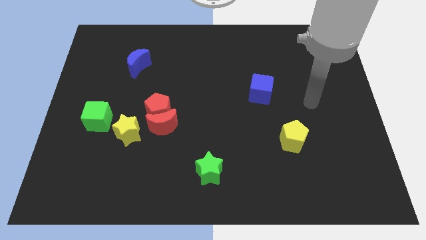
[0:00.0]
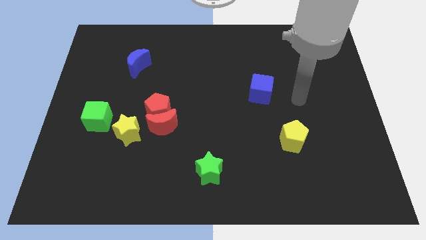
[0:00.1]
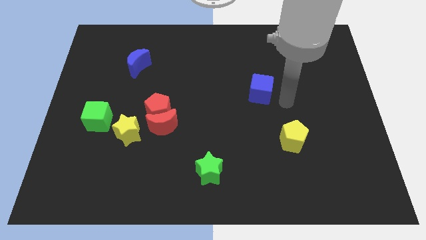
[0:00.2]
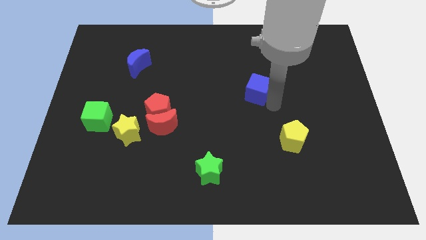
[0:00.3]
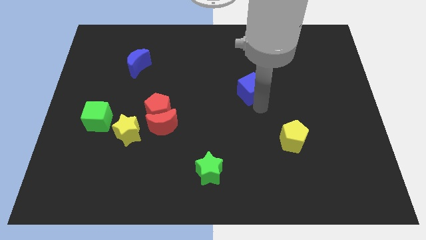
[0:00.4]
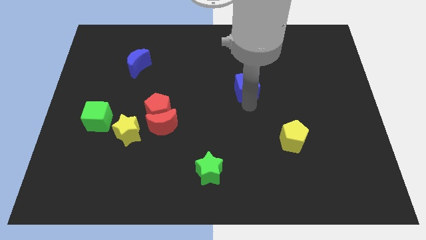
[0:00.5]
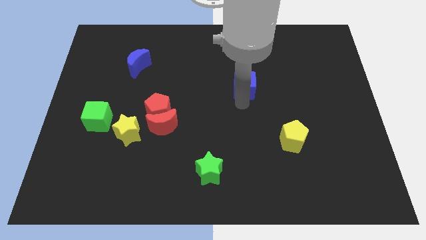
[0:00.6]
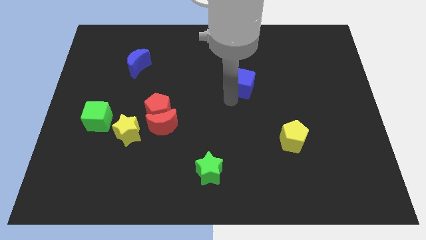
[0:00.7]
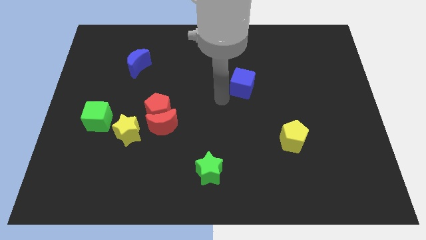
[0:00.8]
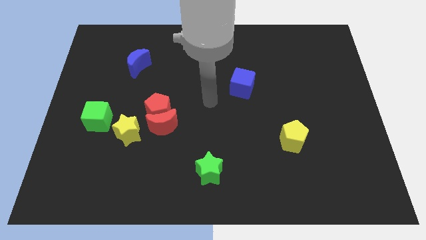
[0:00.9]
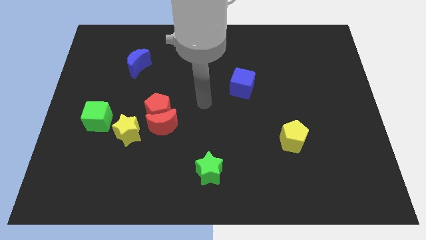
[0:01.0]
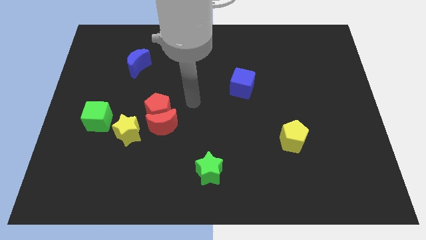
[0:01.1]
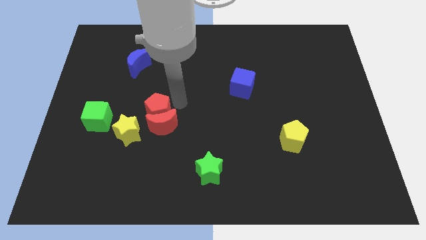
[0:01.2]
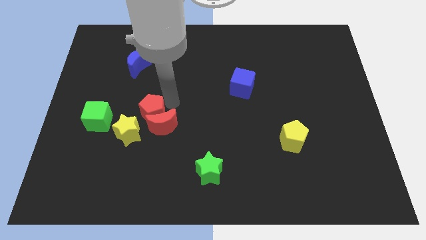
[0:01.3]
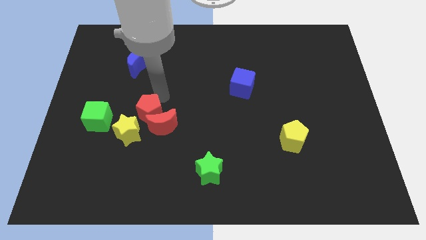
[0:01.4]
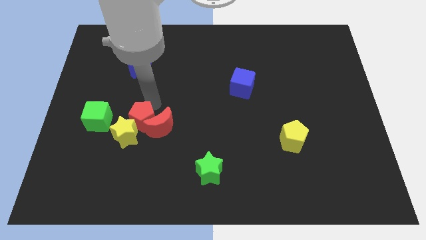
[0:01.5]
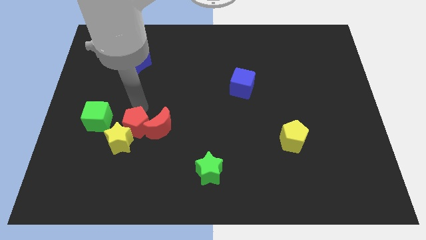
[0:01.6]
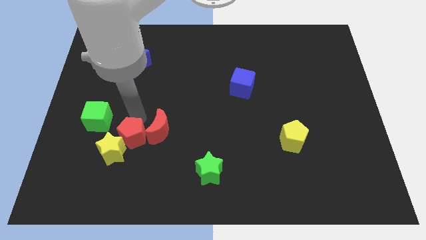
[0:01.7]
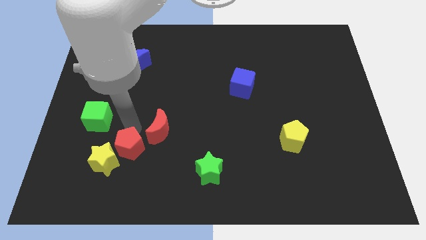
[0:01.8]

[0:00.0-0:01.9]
move the red moon away from the red pentagon and yellow star

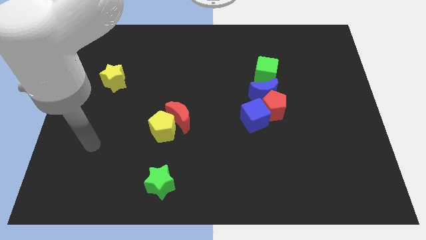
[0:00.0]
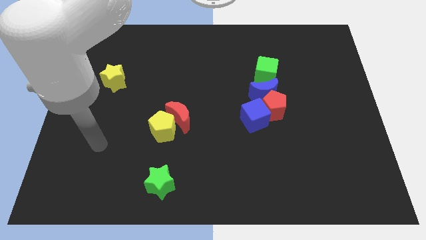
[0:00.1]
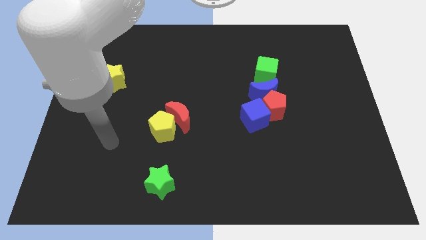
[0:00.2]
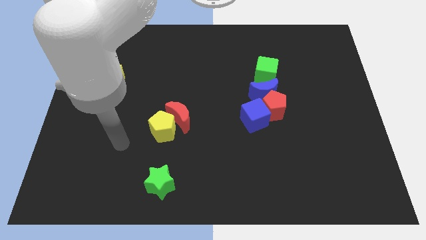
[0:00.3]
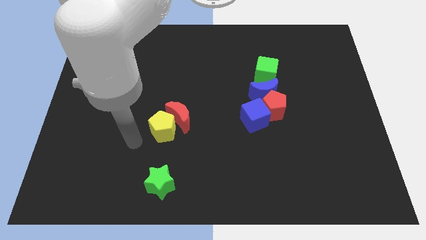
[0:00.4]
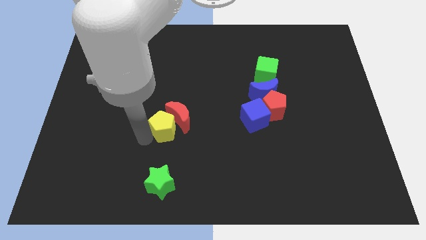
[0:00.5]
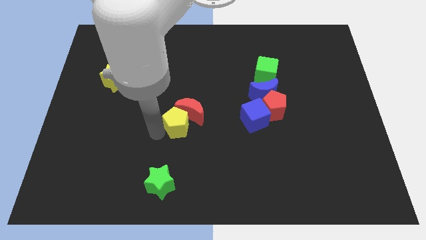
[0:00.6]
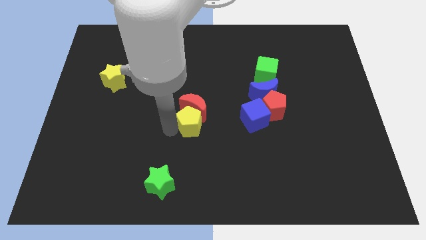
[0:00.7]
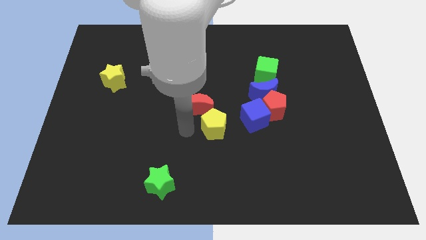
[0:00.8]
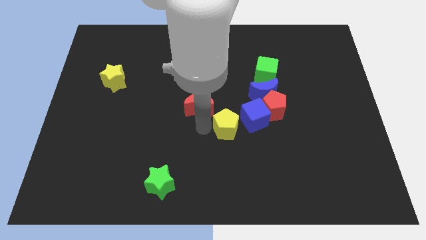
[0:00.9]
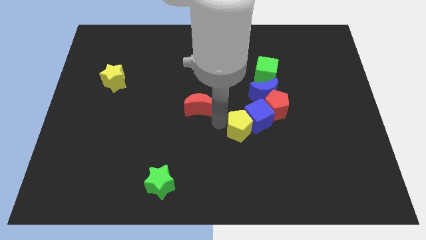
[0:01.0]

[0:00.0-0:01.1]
pull the red moon apart from the yellow pentagon

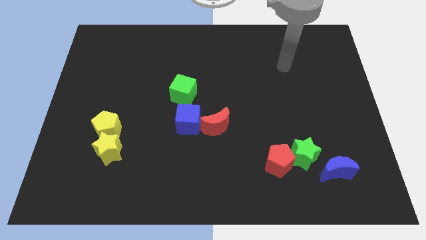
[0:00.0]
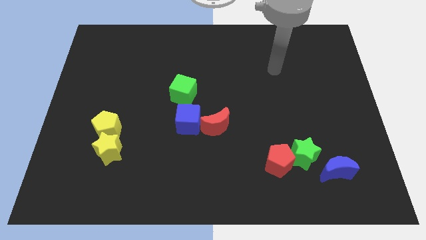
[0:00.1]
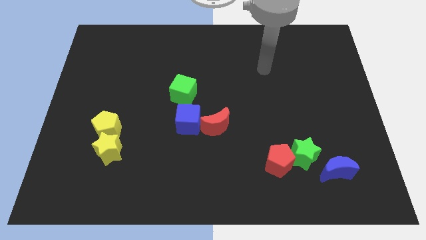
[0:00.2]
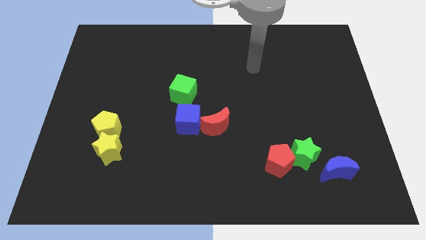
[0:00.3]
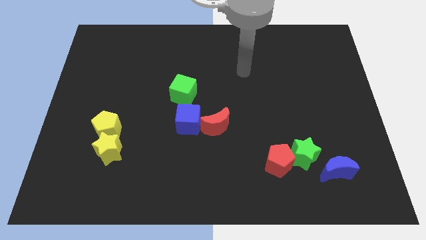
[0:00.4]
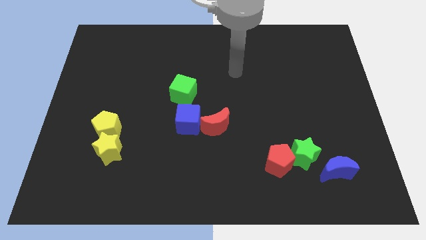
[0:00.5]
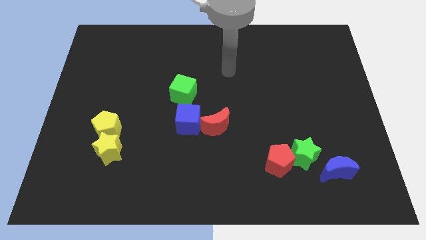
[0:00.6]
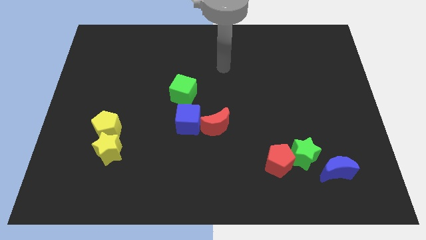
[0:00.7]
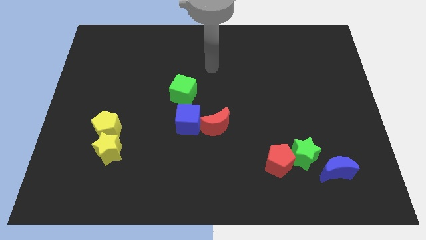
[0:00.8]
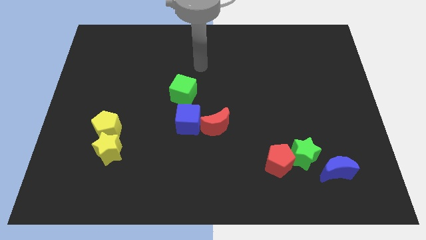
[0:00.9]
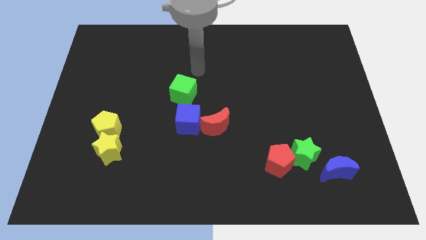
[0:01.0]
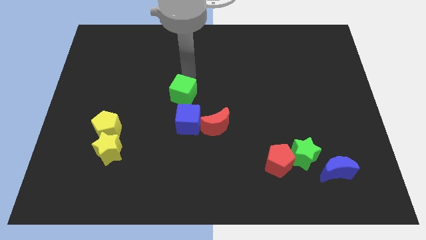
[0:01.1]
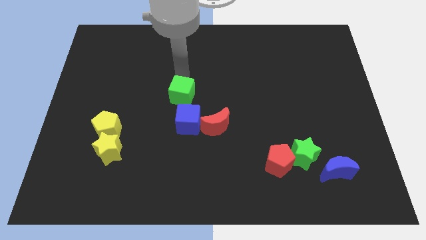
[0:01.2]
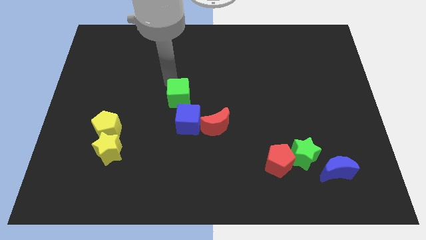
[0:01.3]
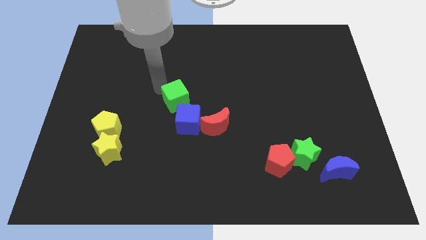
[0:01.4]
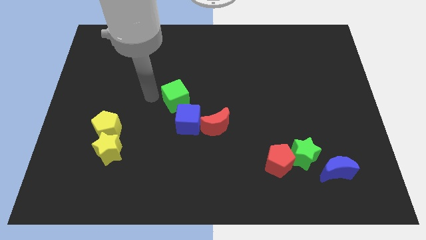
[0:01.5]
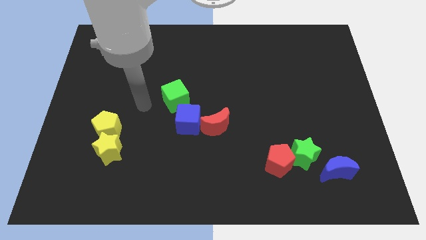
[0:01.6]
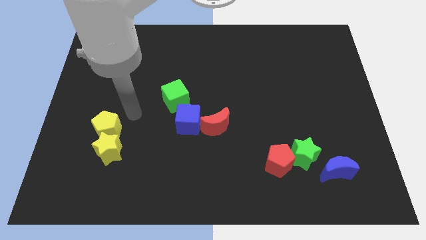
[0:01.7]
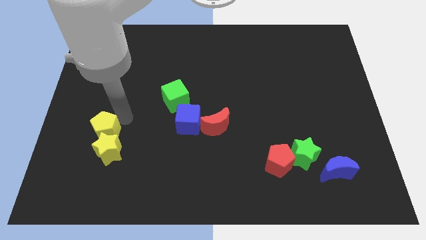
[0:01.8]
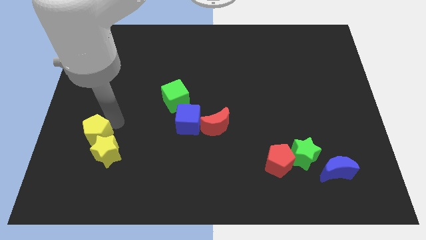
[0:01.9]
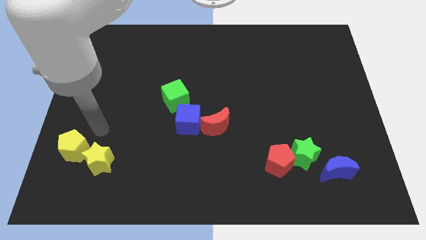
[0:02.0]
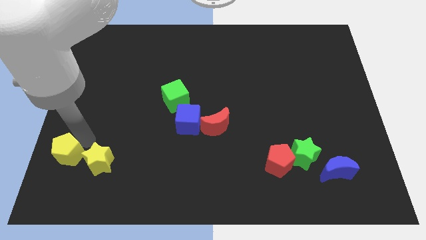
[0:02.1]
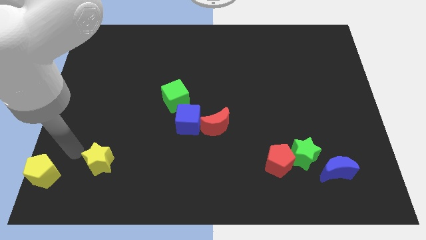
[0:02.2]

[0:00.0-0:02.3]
separate the yellow star from the yellow pentagon

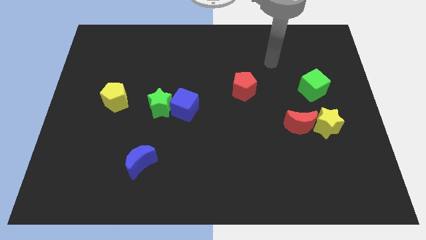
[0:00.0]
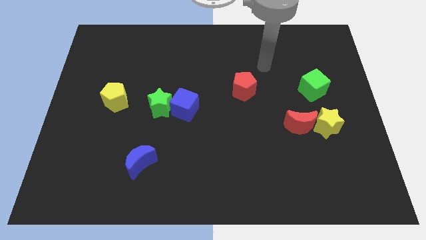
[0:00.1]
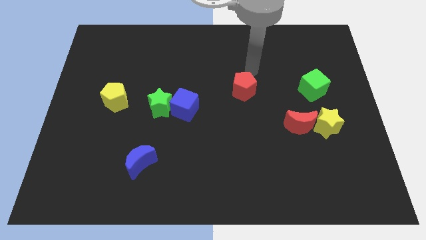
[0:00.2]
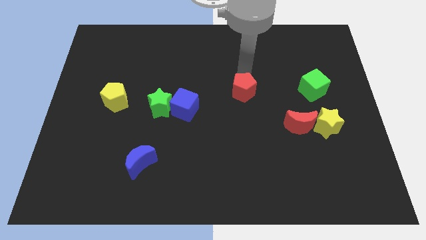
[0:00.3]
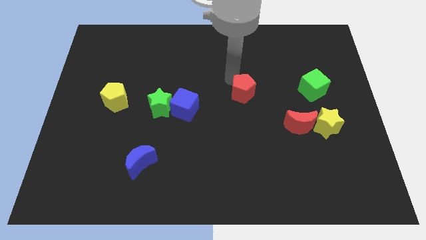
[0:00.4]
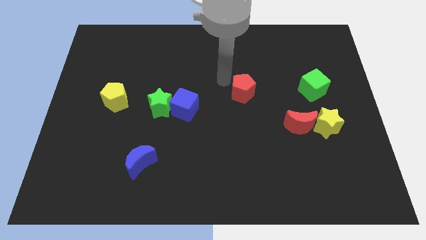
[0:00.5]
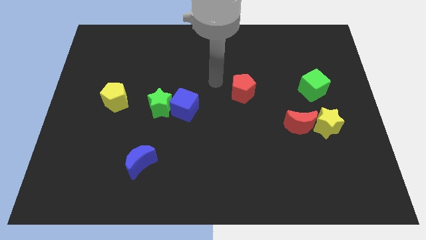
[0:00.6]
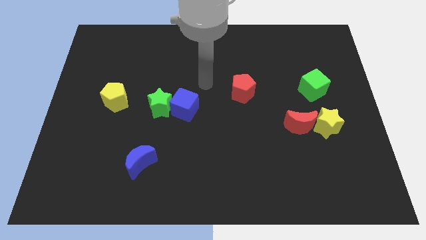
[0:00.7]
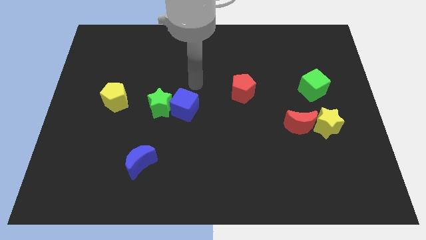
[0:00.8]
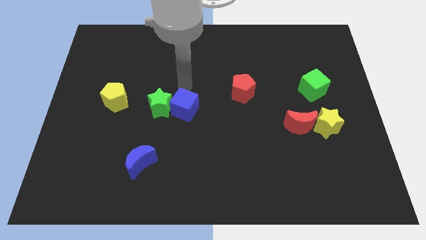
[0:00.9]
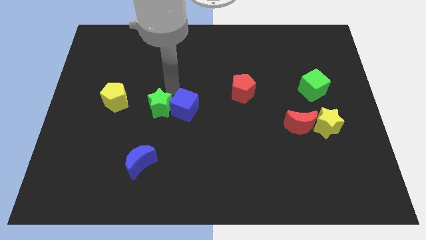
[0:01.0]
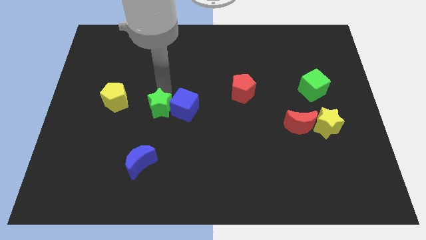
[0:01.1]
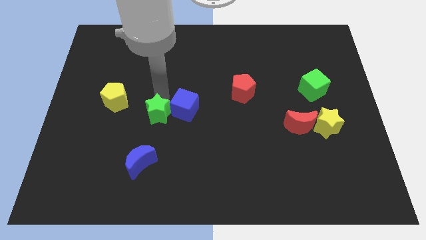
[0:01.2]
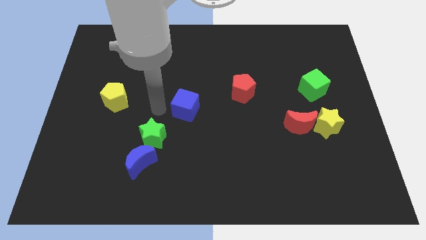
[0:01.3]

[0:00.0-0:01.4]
separate the blue cube from the green star

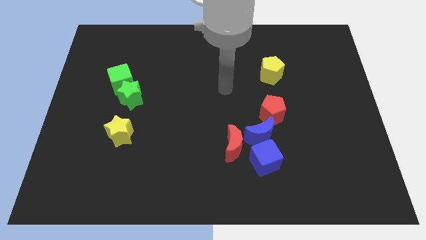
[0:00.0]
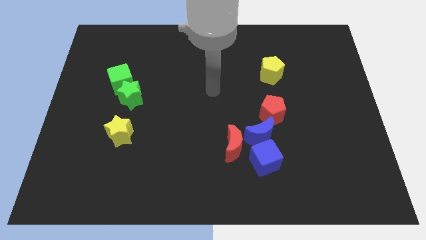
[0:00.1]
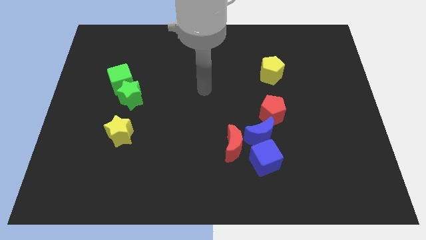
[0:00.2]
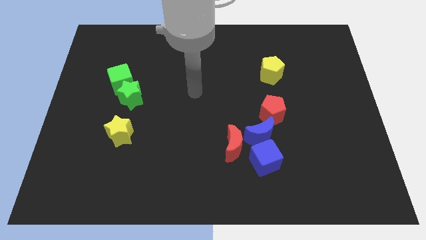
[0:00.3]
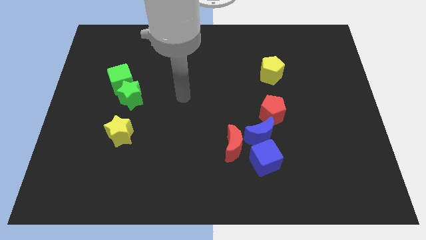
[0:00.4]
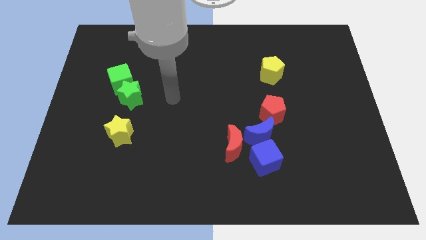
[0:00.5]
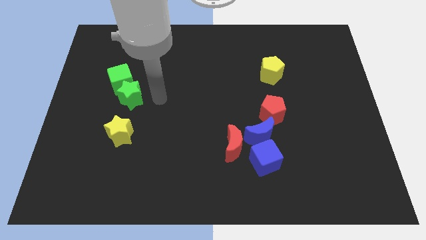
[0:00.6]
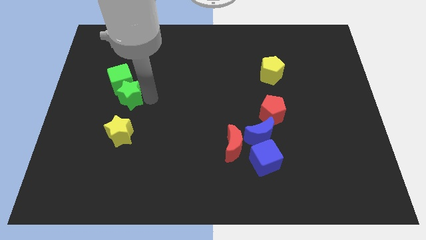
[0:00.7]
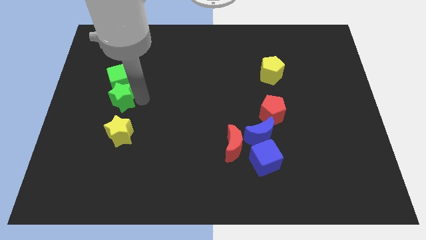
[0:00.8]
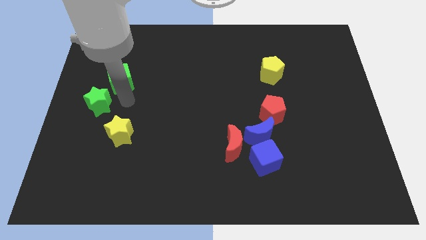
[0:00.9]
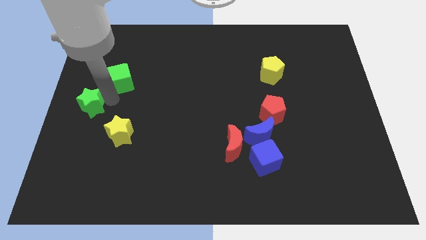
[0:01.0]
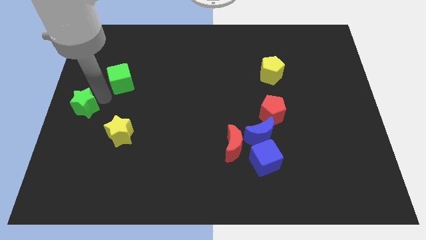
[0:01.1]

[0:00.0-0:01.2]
move the green cube away from the green star

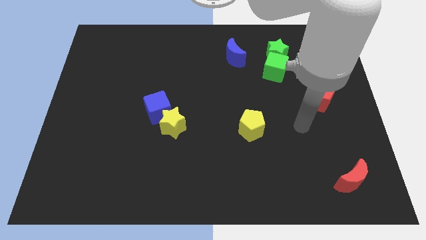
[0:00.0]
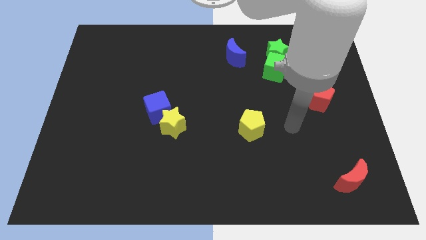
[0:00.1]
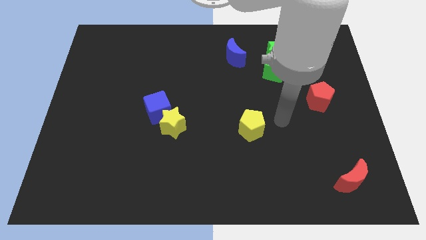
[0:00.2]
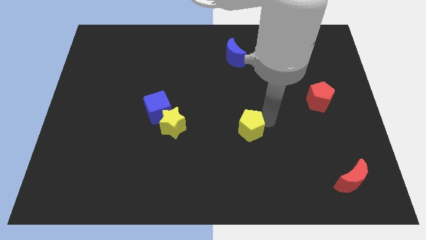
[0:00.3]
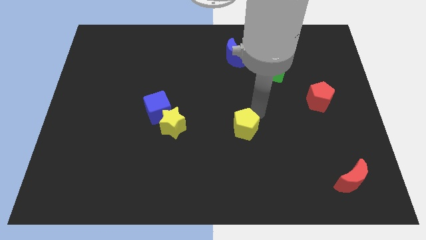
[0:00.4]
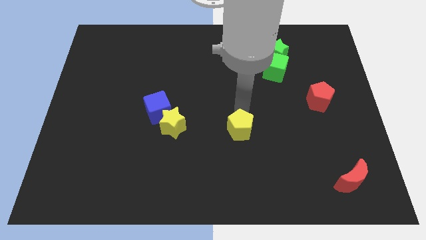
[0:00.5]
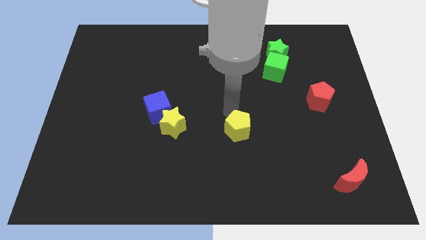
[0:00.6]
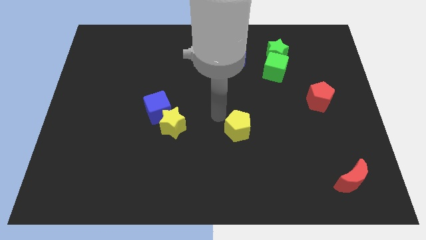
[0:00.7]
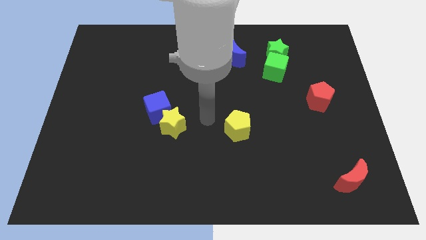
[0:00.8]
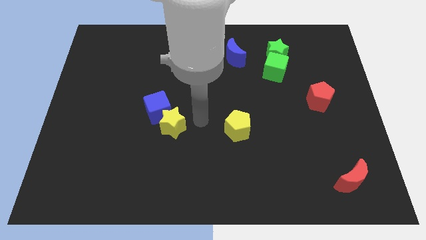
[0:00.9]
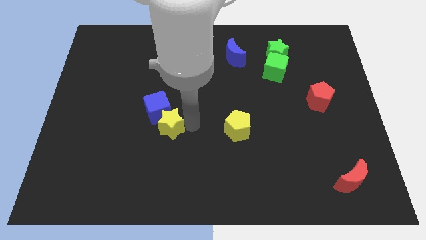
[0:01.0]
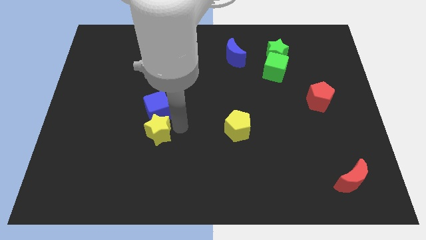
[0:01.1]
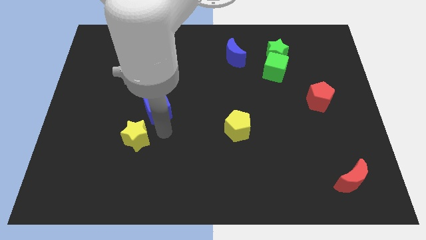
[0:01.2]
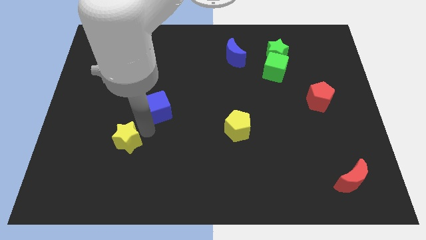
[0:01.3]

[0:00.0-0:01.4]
separate the blue cube from the yellow star
